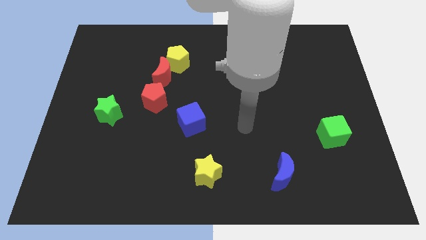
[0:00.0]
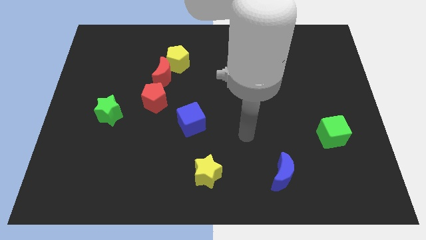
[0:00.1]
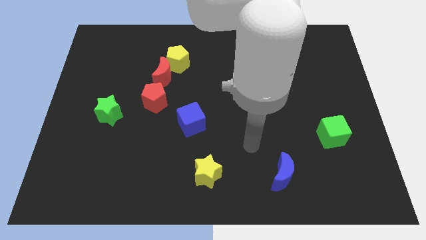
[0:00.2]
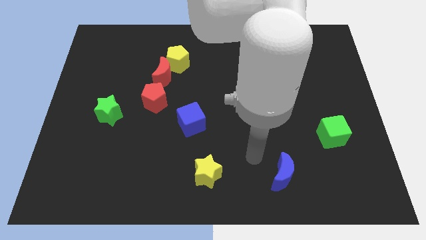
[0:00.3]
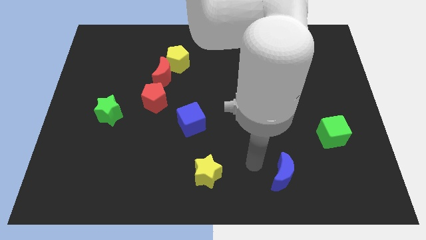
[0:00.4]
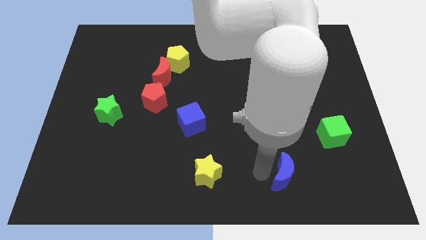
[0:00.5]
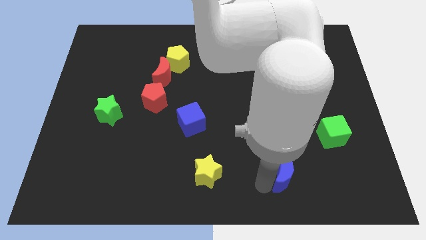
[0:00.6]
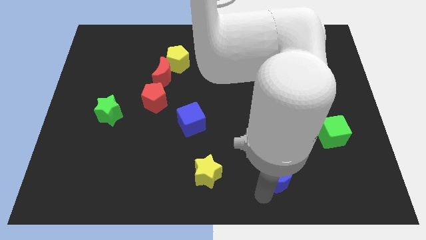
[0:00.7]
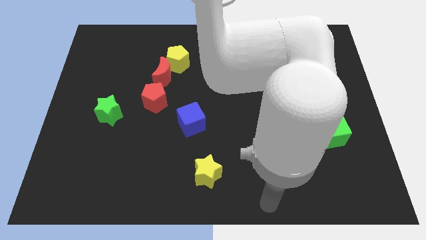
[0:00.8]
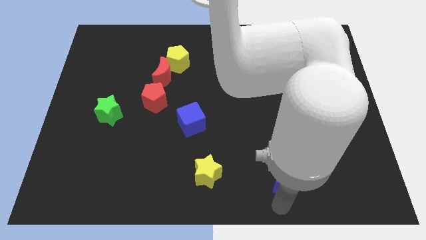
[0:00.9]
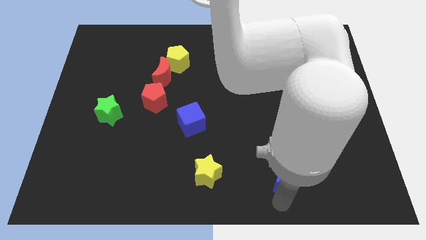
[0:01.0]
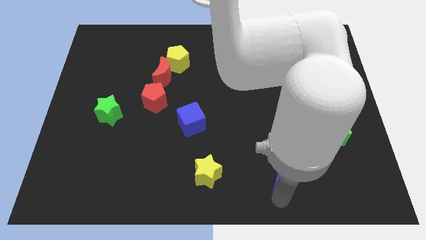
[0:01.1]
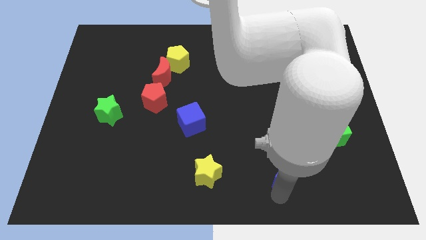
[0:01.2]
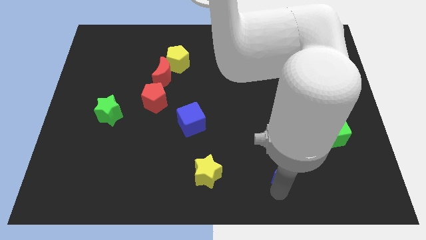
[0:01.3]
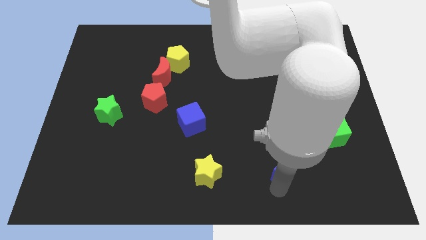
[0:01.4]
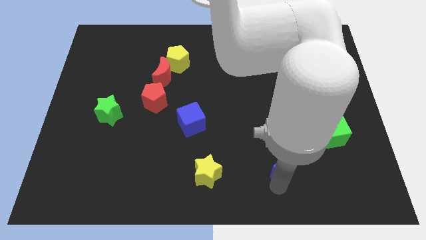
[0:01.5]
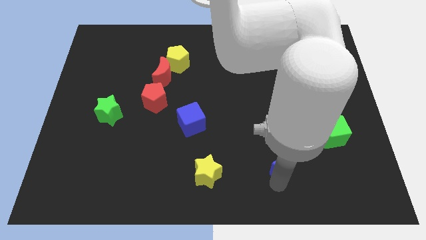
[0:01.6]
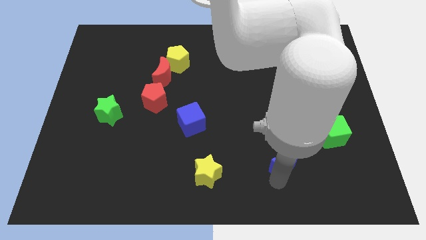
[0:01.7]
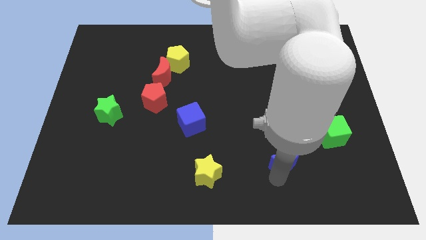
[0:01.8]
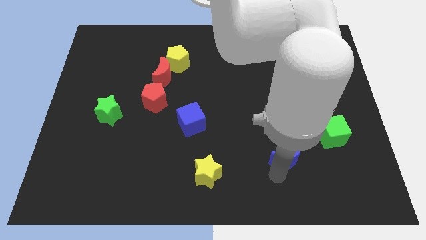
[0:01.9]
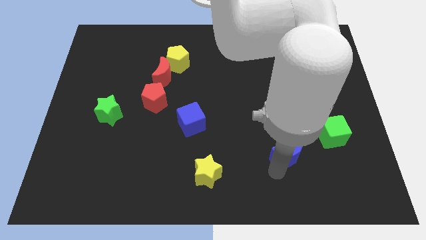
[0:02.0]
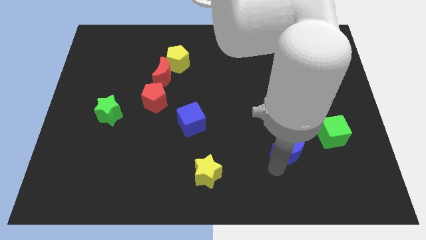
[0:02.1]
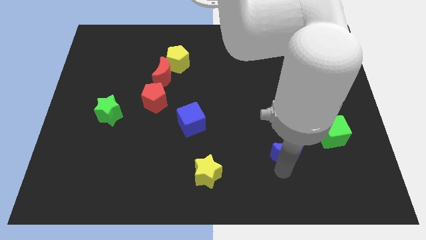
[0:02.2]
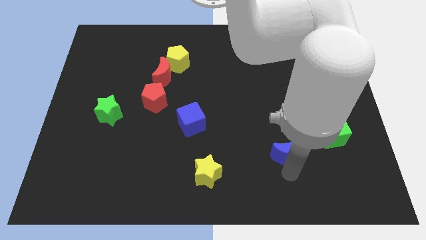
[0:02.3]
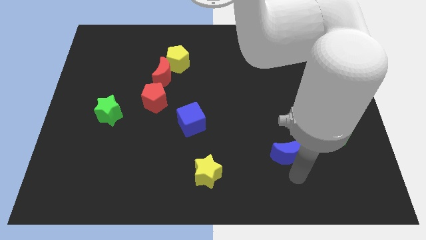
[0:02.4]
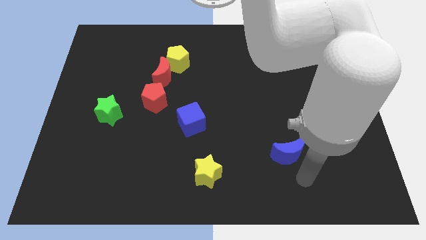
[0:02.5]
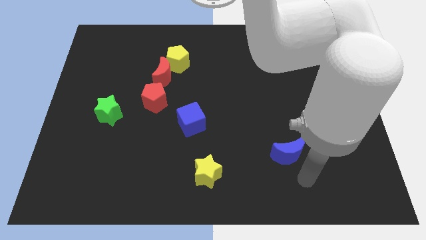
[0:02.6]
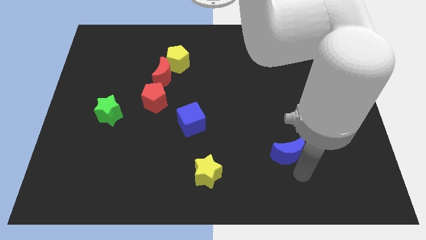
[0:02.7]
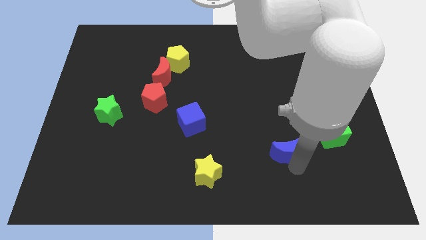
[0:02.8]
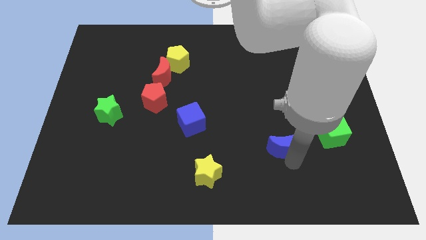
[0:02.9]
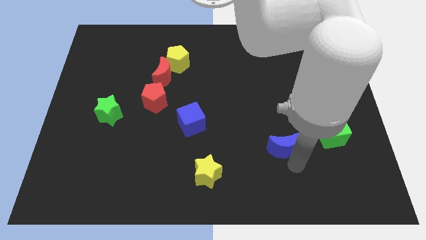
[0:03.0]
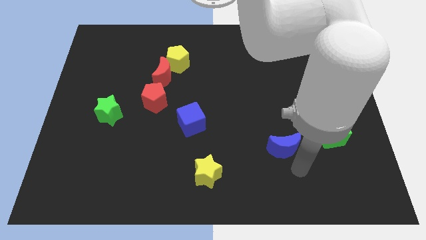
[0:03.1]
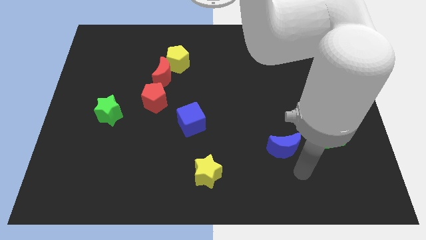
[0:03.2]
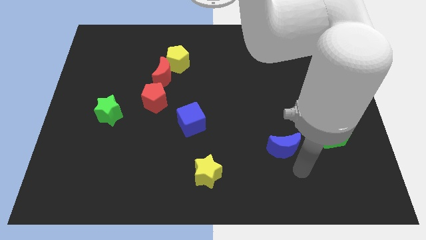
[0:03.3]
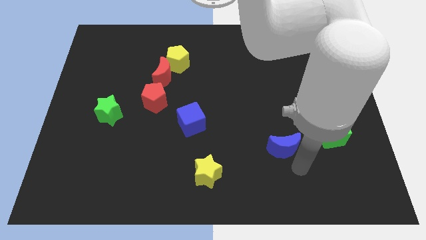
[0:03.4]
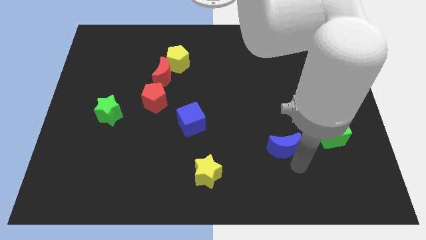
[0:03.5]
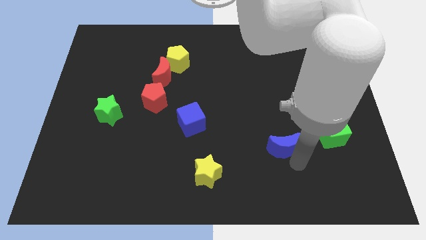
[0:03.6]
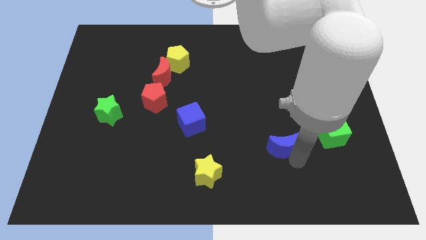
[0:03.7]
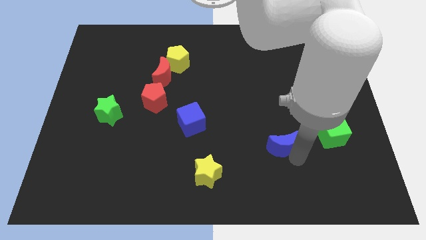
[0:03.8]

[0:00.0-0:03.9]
slightly slide the blue moon upwards

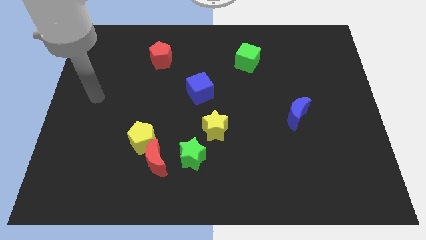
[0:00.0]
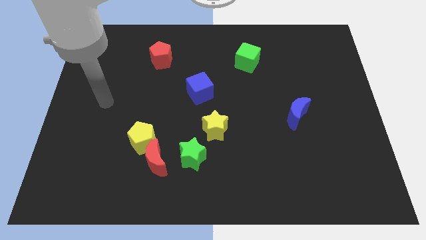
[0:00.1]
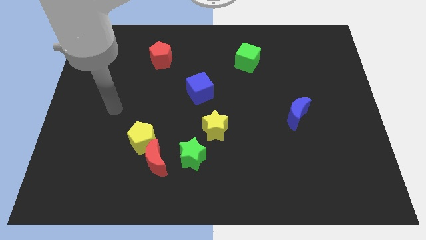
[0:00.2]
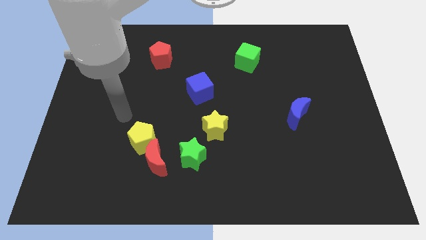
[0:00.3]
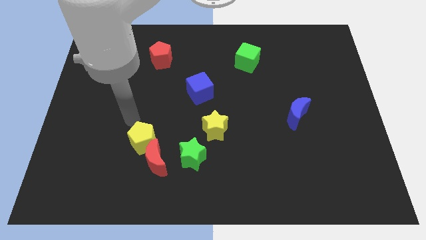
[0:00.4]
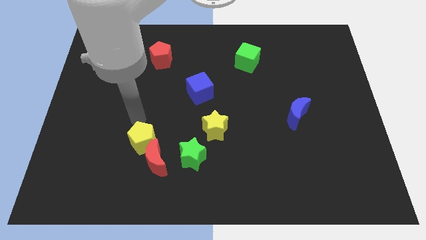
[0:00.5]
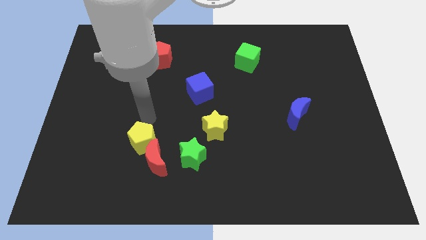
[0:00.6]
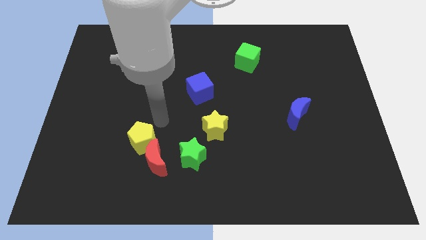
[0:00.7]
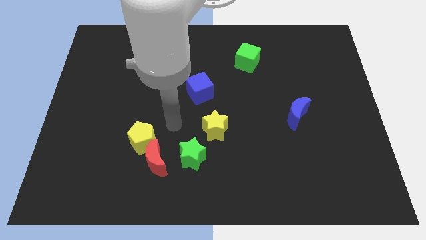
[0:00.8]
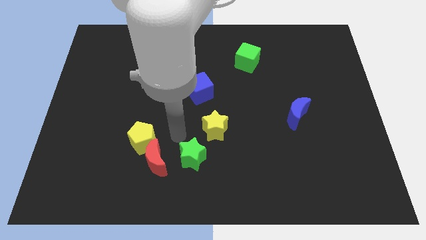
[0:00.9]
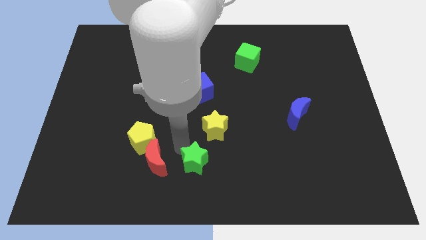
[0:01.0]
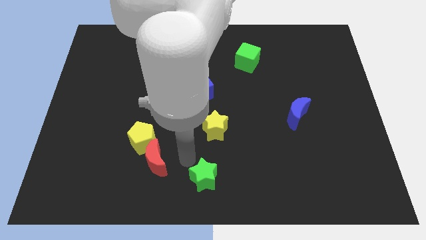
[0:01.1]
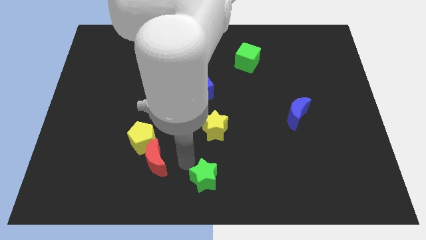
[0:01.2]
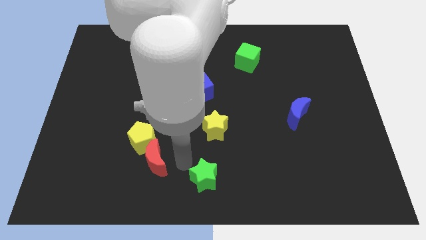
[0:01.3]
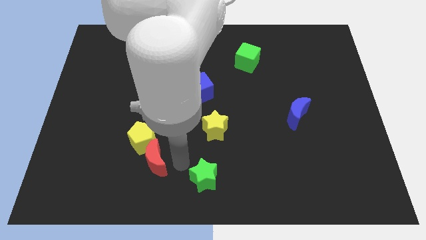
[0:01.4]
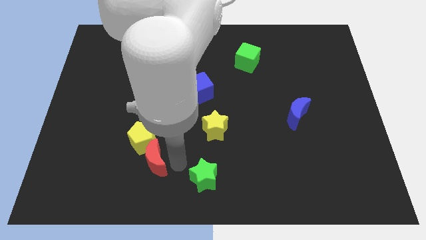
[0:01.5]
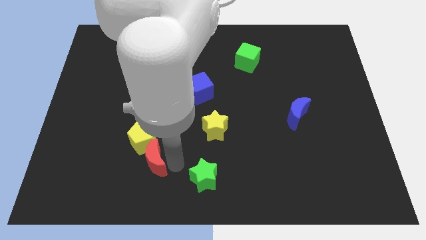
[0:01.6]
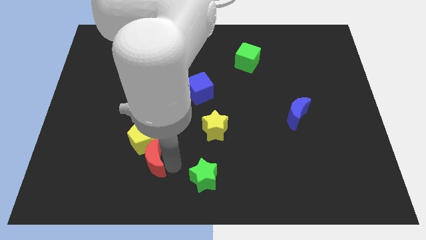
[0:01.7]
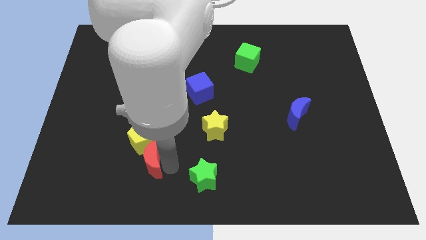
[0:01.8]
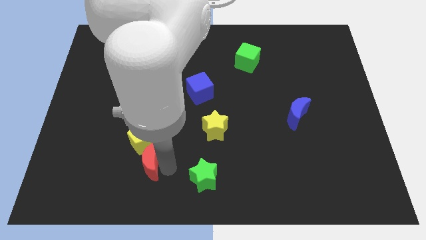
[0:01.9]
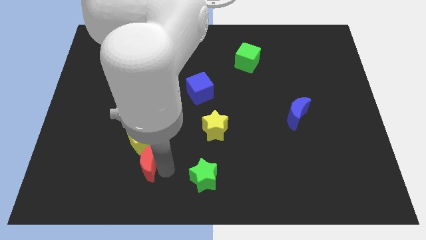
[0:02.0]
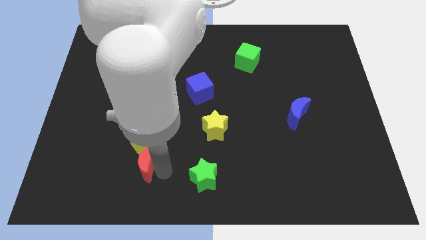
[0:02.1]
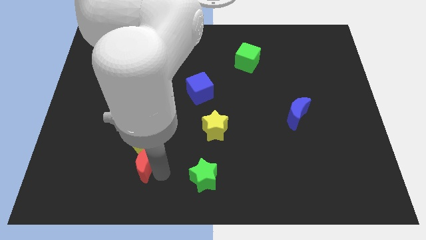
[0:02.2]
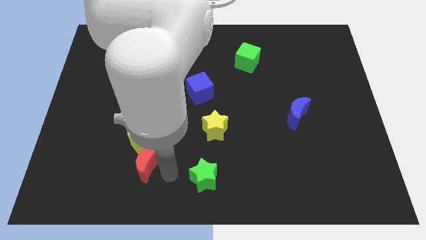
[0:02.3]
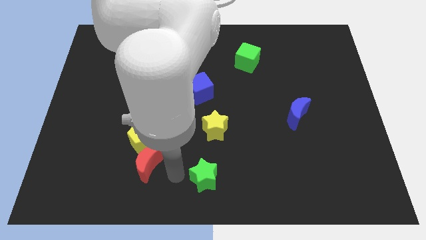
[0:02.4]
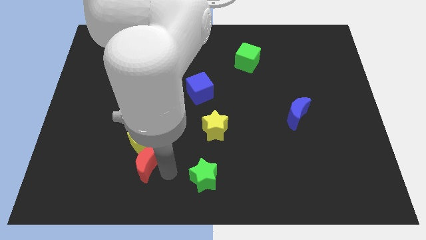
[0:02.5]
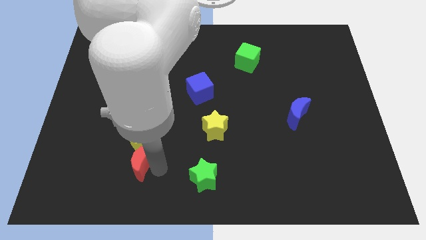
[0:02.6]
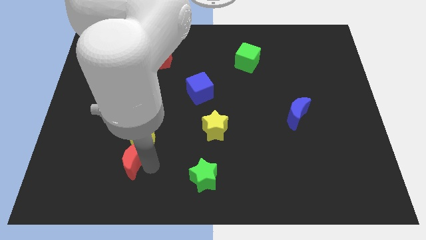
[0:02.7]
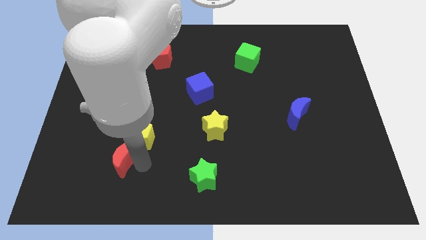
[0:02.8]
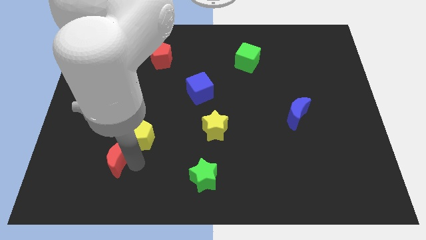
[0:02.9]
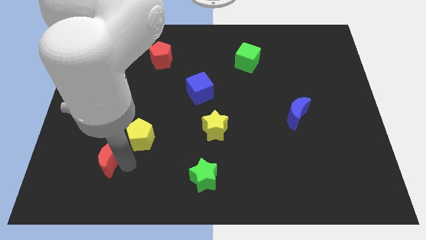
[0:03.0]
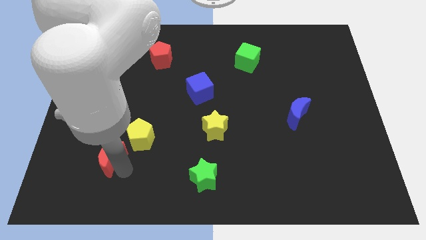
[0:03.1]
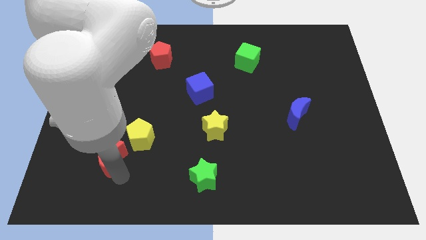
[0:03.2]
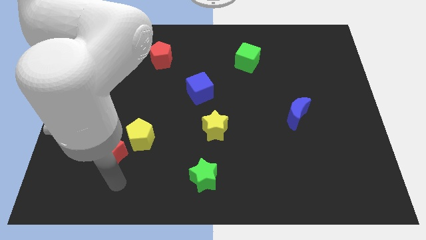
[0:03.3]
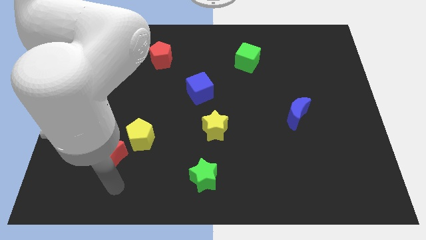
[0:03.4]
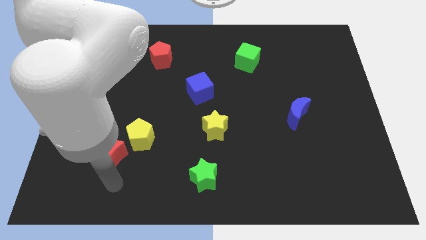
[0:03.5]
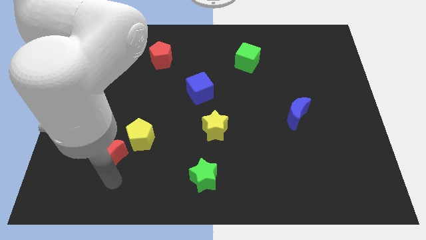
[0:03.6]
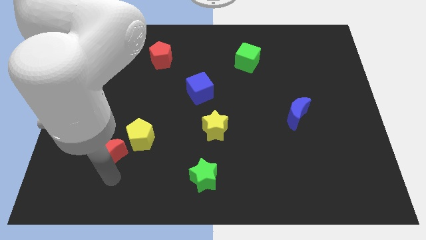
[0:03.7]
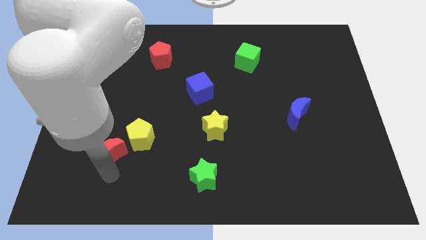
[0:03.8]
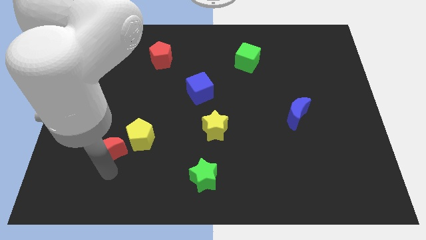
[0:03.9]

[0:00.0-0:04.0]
slightly move the red moon diagonally up and left

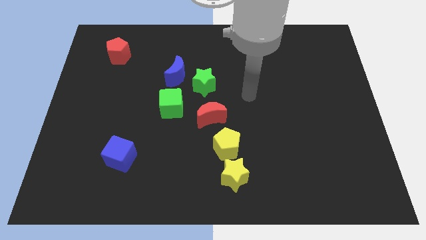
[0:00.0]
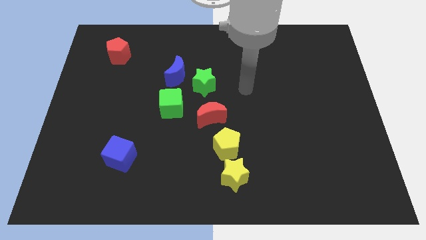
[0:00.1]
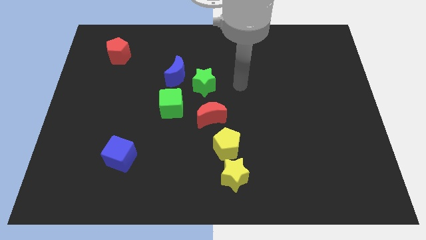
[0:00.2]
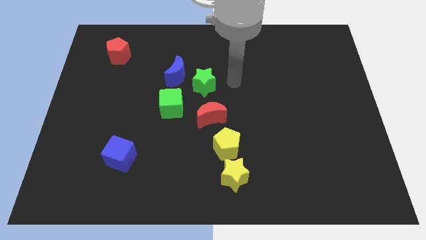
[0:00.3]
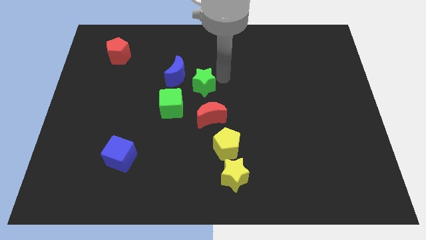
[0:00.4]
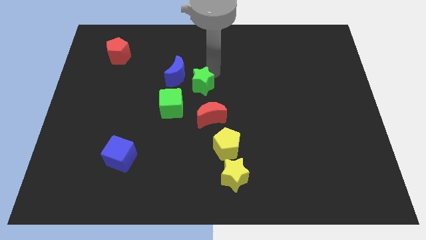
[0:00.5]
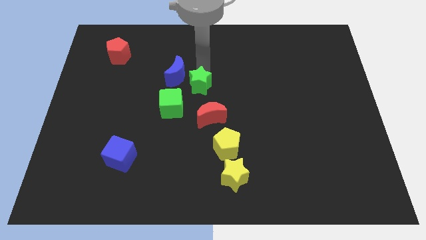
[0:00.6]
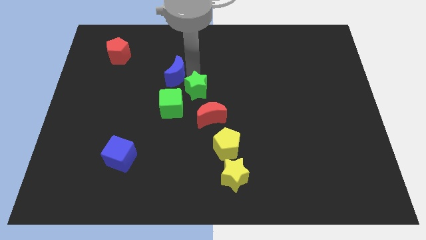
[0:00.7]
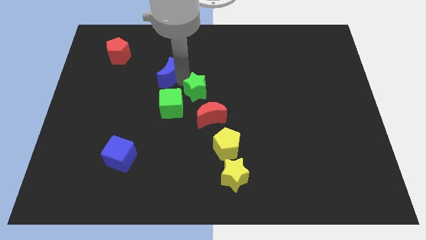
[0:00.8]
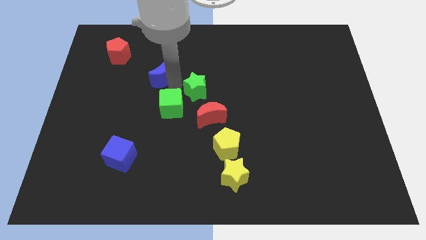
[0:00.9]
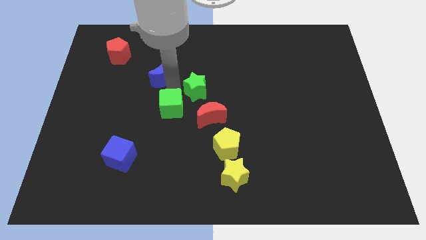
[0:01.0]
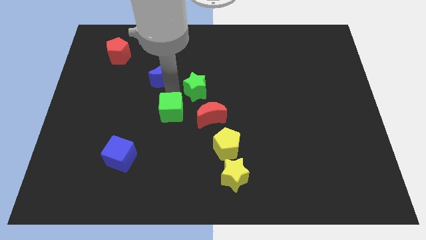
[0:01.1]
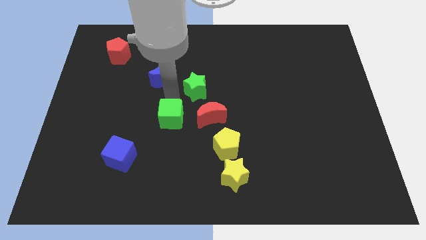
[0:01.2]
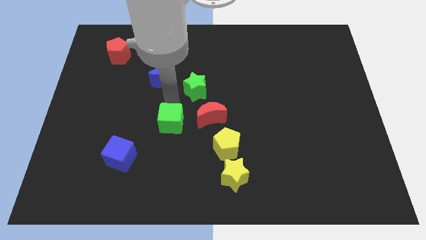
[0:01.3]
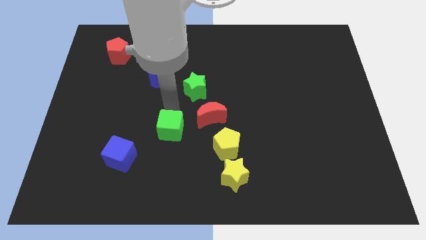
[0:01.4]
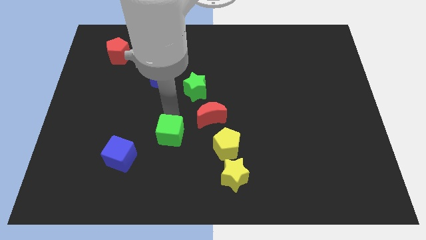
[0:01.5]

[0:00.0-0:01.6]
slide the green cube somewhat down
